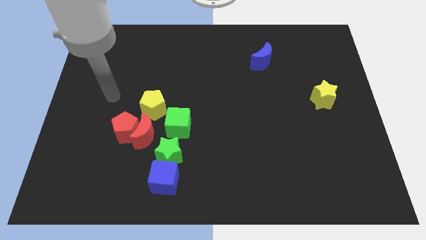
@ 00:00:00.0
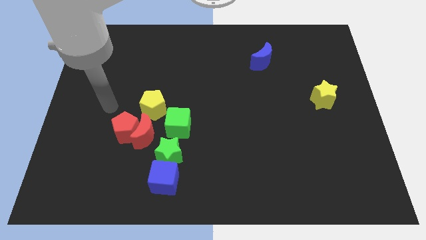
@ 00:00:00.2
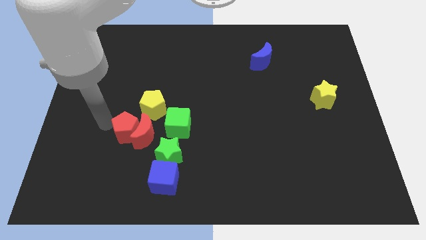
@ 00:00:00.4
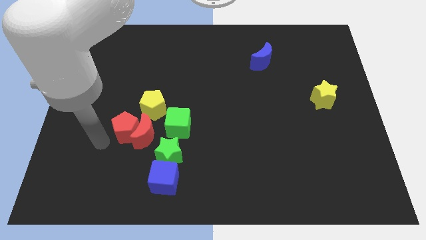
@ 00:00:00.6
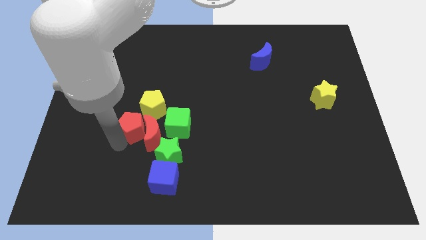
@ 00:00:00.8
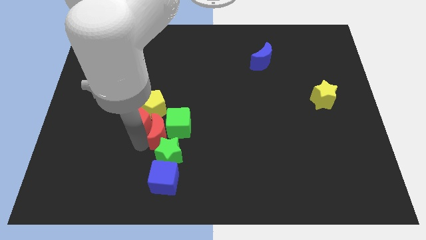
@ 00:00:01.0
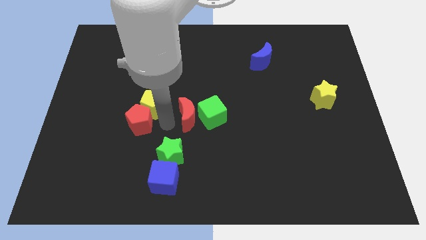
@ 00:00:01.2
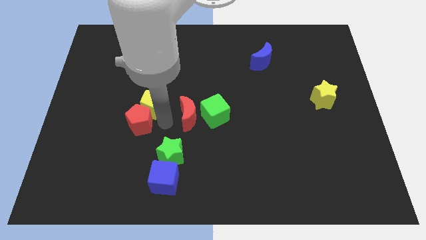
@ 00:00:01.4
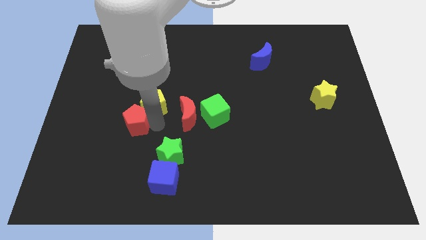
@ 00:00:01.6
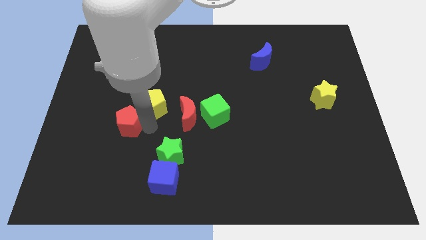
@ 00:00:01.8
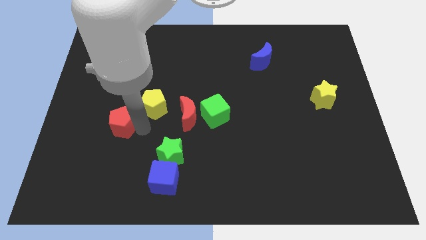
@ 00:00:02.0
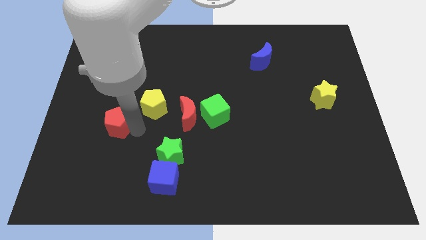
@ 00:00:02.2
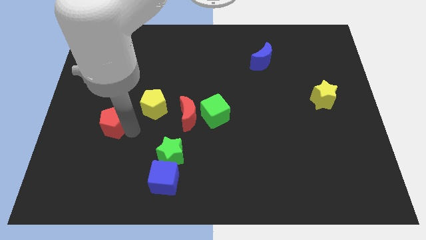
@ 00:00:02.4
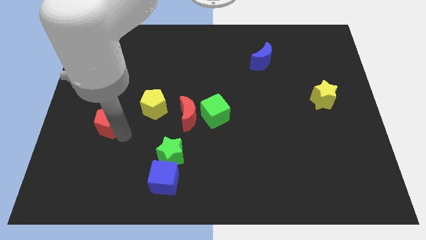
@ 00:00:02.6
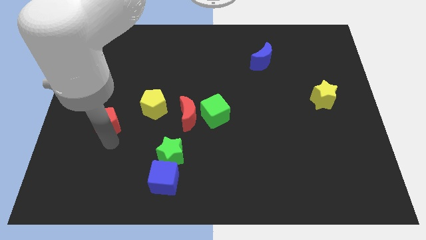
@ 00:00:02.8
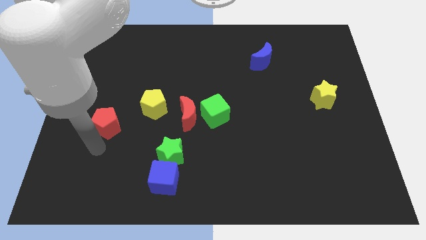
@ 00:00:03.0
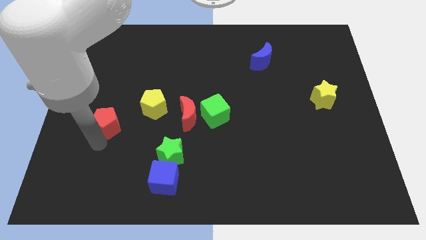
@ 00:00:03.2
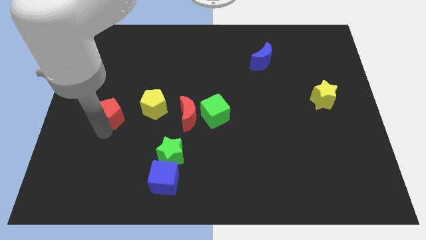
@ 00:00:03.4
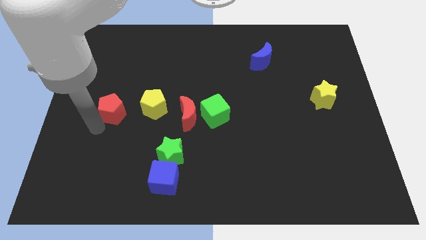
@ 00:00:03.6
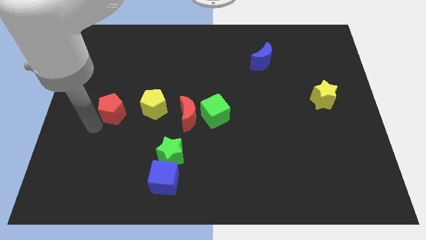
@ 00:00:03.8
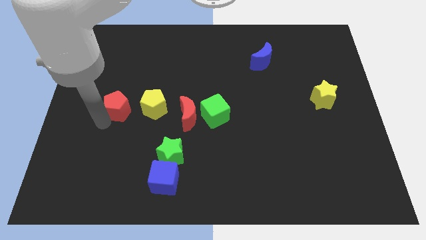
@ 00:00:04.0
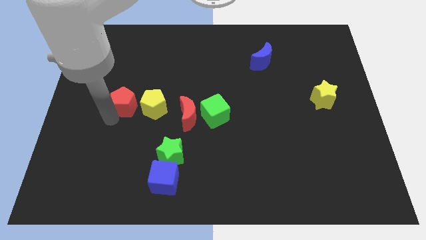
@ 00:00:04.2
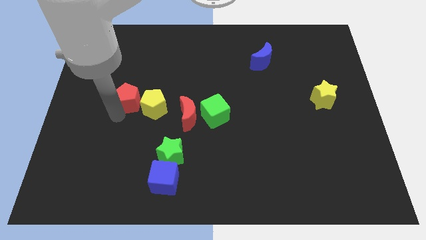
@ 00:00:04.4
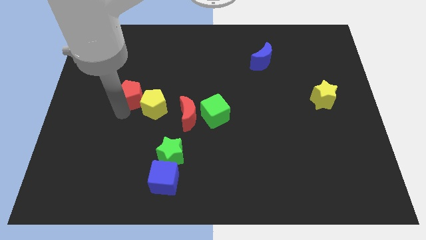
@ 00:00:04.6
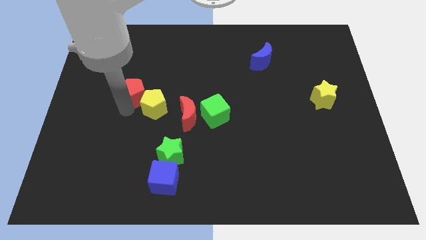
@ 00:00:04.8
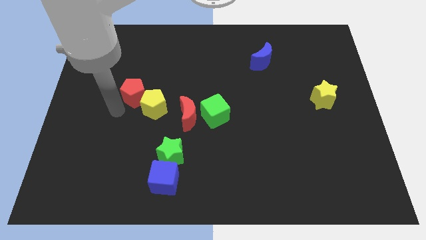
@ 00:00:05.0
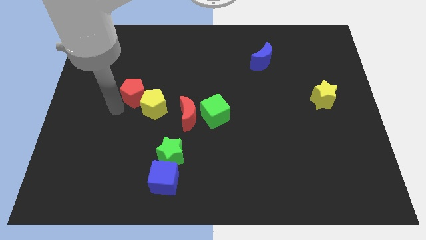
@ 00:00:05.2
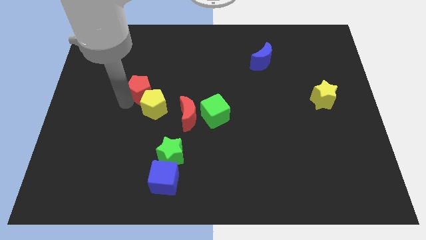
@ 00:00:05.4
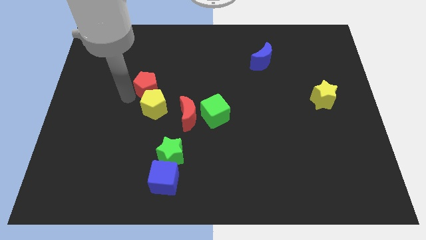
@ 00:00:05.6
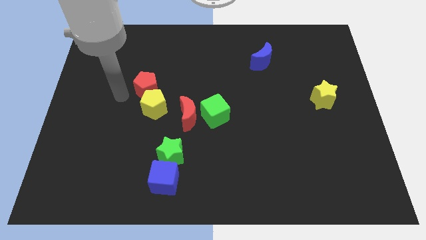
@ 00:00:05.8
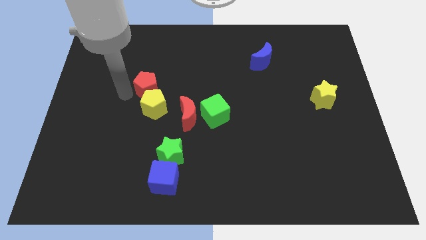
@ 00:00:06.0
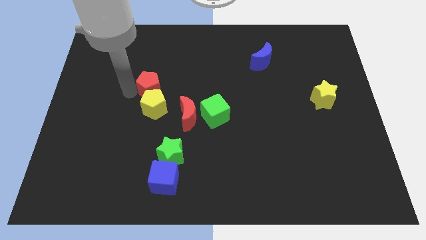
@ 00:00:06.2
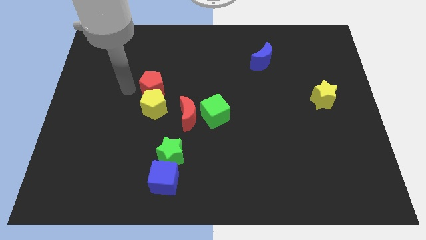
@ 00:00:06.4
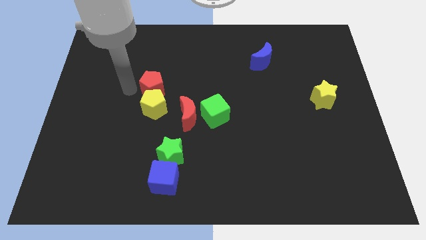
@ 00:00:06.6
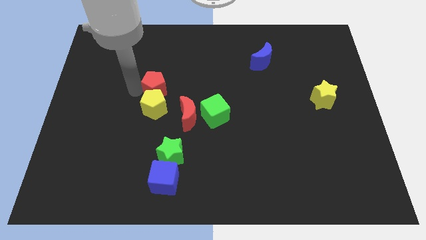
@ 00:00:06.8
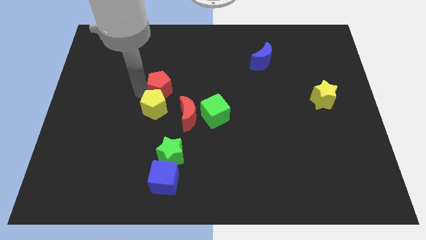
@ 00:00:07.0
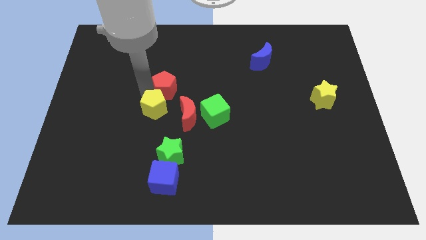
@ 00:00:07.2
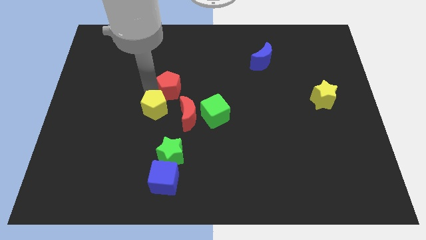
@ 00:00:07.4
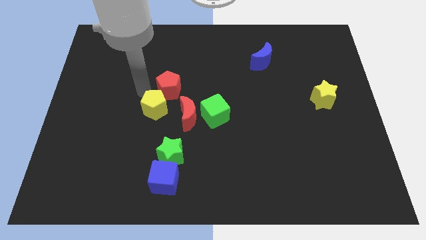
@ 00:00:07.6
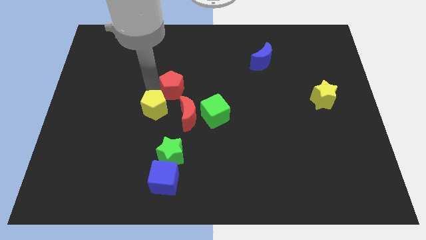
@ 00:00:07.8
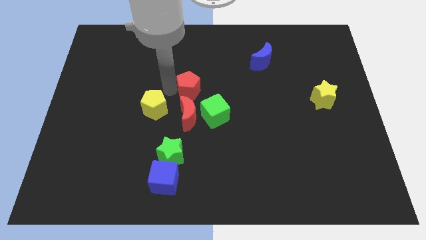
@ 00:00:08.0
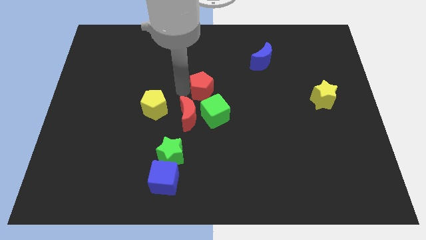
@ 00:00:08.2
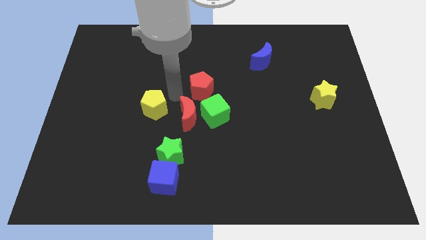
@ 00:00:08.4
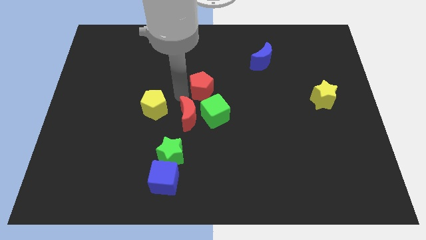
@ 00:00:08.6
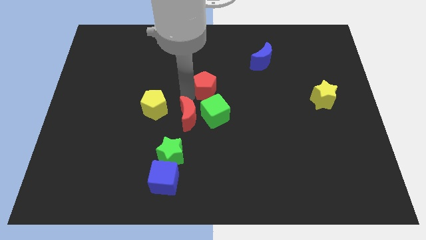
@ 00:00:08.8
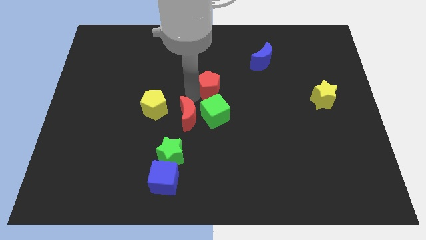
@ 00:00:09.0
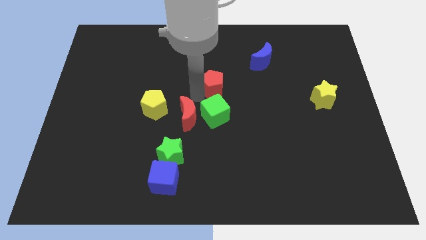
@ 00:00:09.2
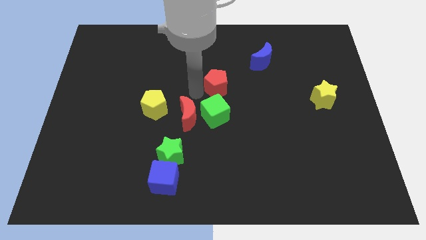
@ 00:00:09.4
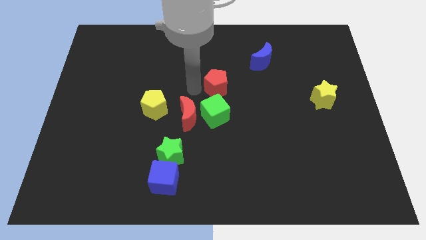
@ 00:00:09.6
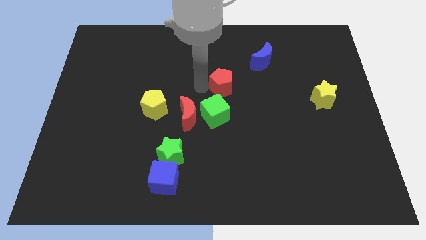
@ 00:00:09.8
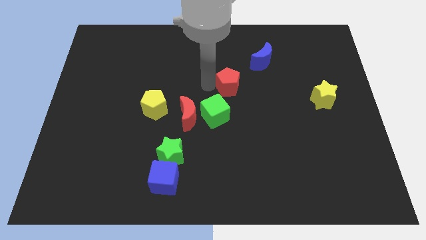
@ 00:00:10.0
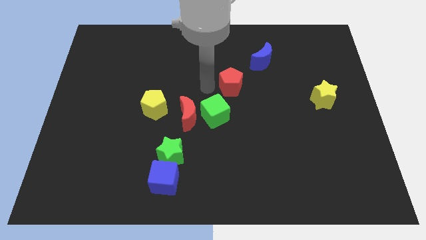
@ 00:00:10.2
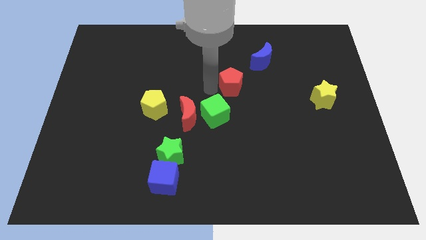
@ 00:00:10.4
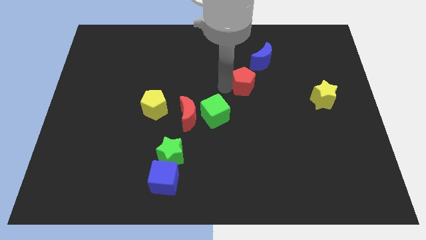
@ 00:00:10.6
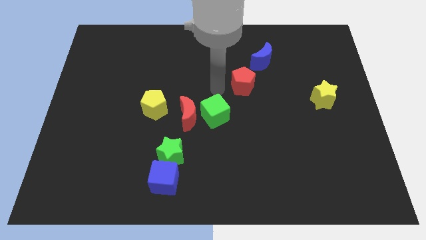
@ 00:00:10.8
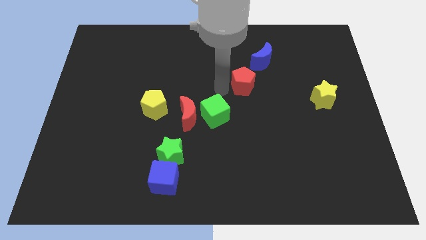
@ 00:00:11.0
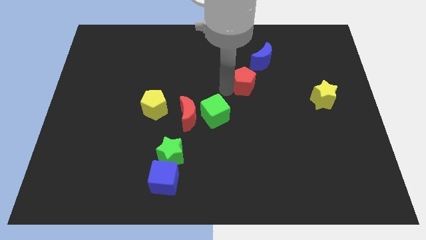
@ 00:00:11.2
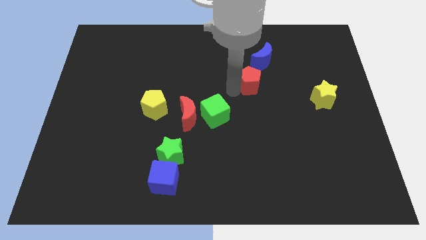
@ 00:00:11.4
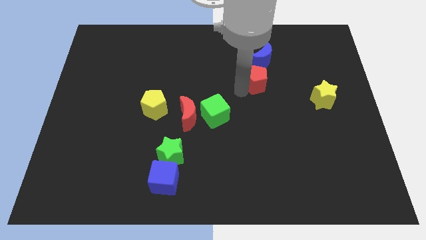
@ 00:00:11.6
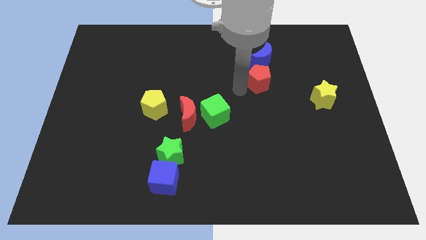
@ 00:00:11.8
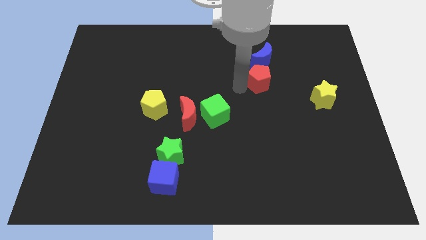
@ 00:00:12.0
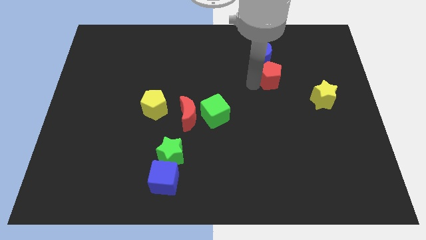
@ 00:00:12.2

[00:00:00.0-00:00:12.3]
slide the red pentagon to the bottom right side of the blue moon

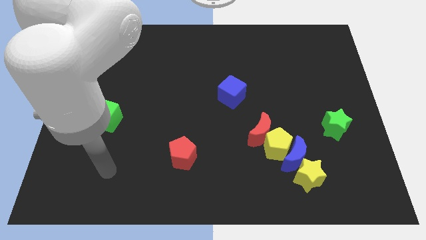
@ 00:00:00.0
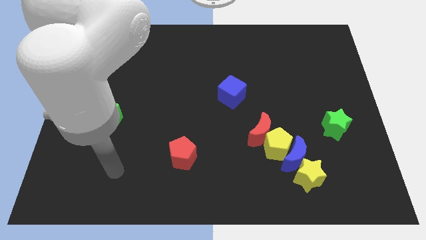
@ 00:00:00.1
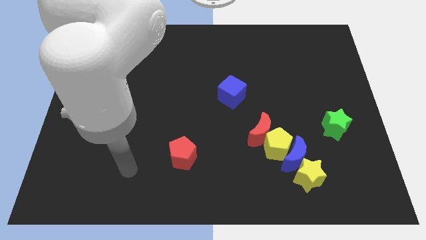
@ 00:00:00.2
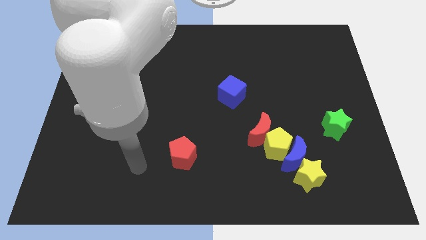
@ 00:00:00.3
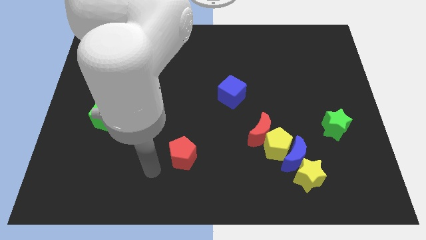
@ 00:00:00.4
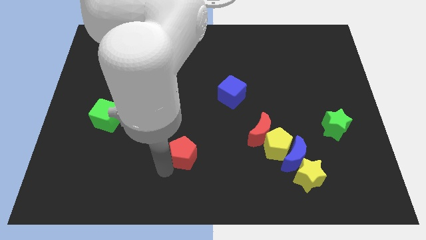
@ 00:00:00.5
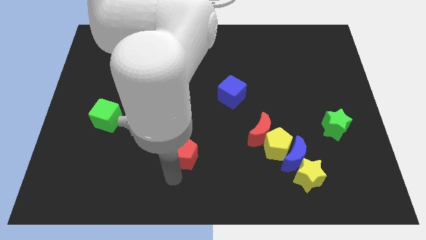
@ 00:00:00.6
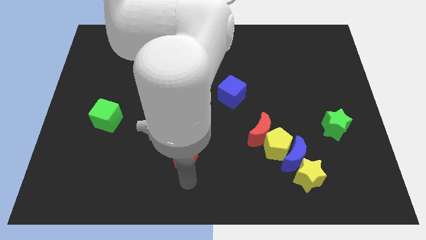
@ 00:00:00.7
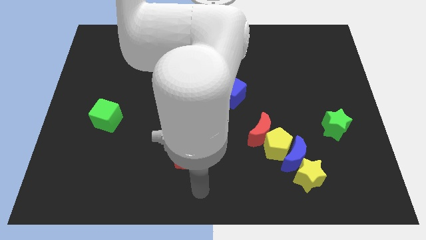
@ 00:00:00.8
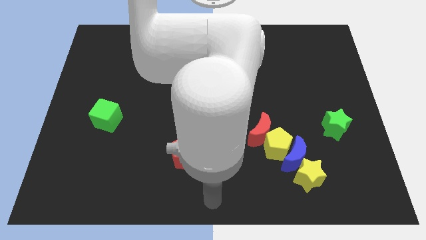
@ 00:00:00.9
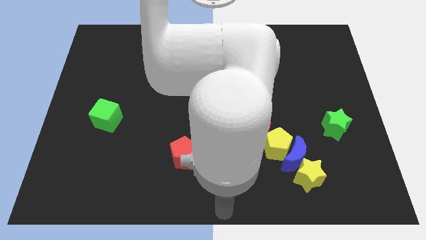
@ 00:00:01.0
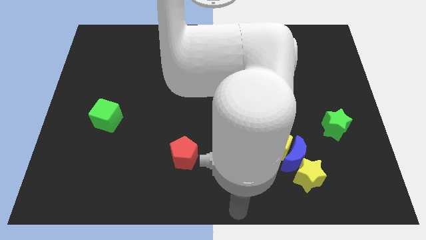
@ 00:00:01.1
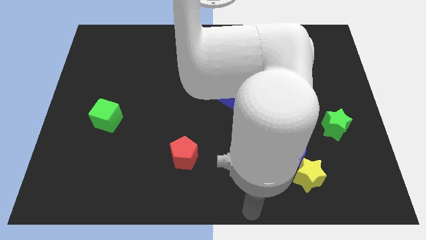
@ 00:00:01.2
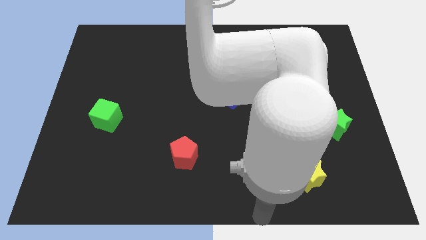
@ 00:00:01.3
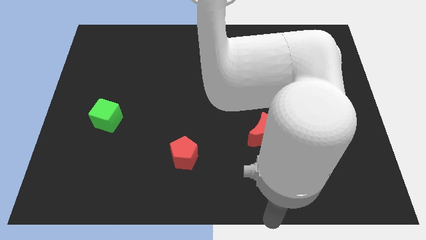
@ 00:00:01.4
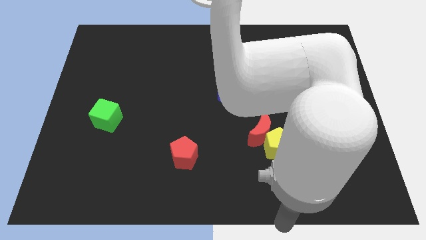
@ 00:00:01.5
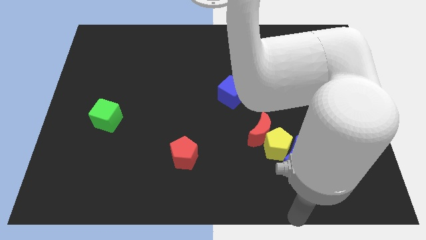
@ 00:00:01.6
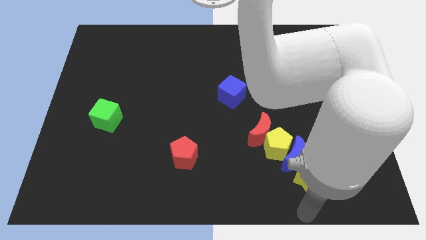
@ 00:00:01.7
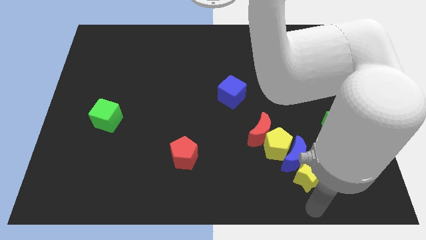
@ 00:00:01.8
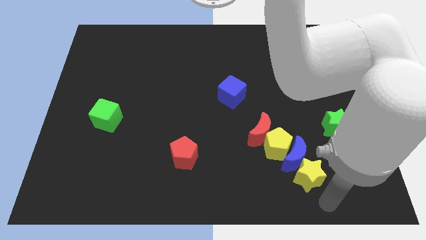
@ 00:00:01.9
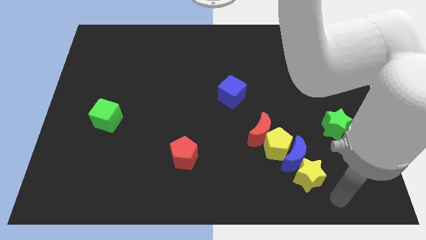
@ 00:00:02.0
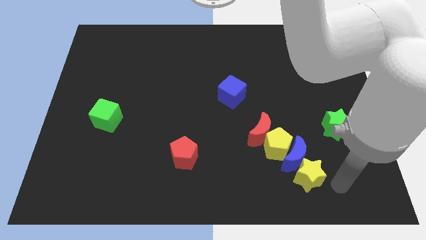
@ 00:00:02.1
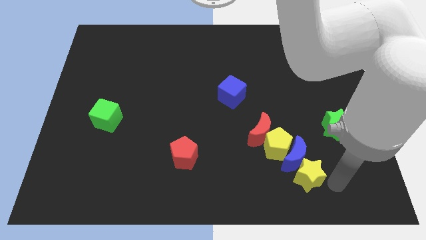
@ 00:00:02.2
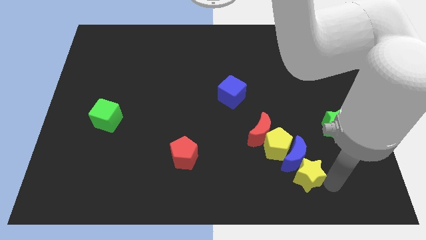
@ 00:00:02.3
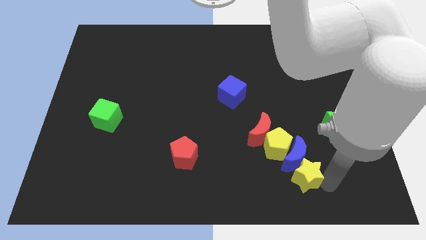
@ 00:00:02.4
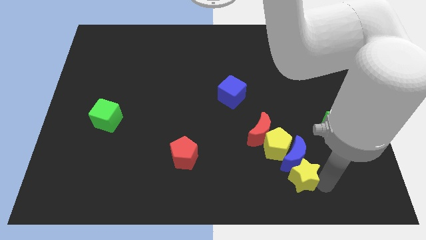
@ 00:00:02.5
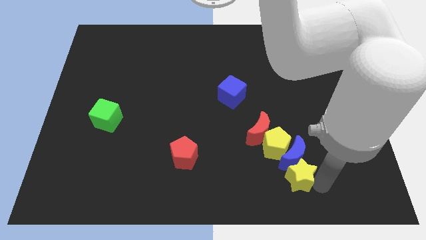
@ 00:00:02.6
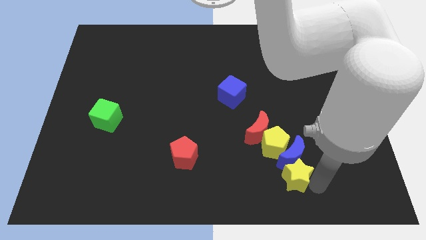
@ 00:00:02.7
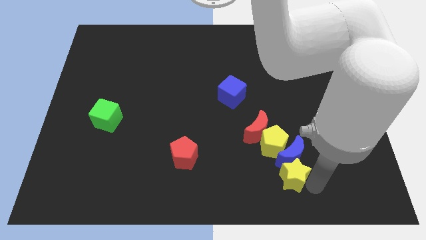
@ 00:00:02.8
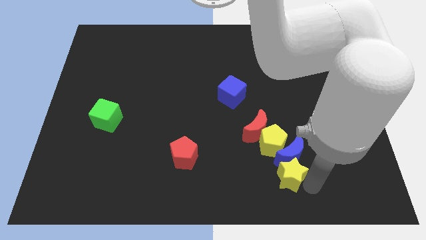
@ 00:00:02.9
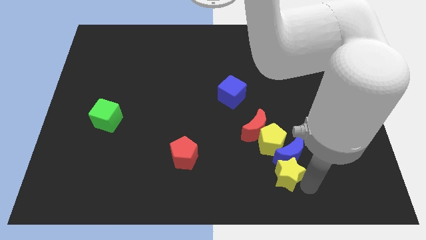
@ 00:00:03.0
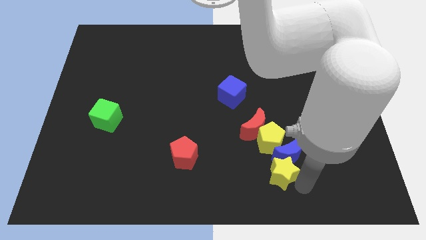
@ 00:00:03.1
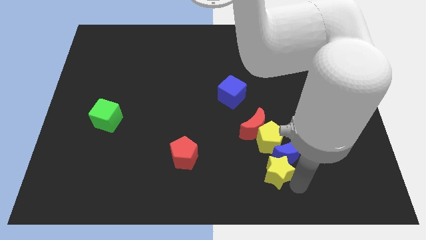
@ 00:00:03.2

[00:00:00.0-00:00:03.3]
slide the yellow star to the left of the blue moon
